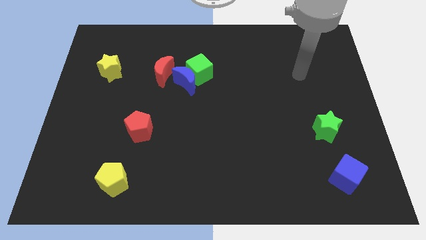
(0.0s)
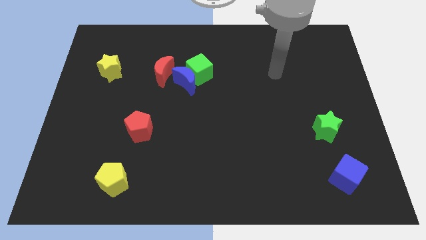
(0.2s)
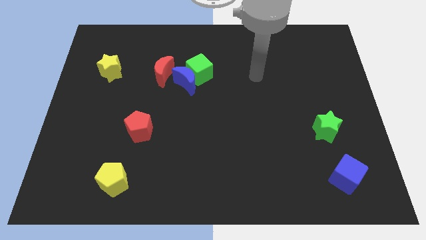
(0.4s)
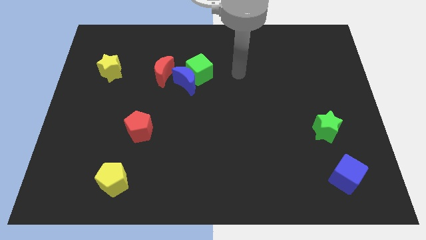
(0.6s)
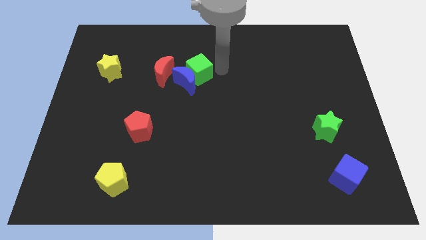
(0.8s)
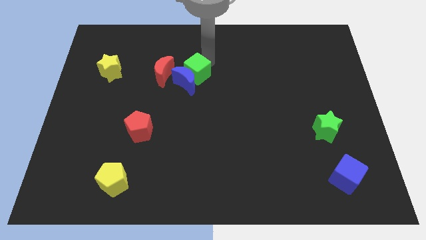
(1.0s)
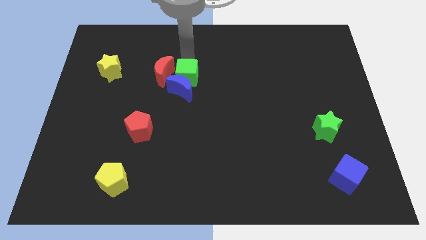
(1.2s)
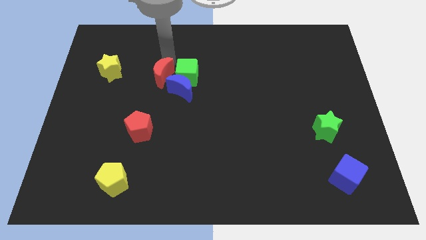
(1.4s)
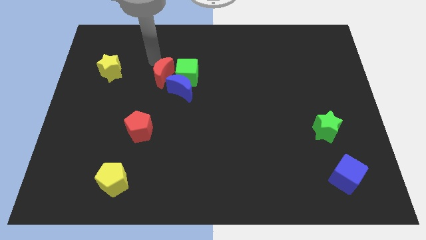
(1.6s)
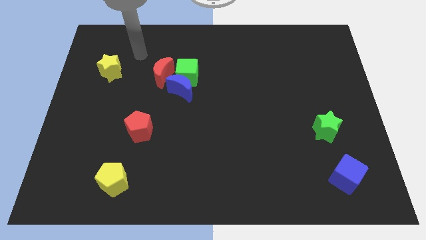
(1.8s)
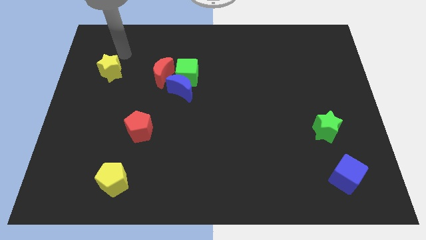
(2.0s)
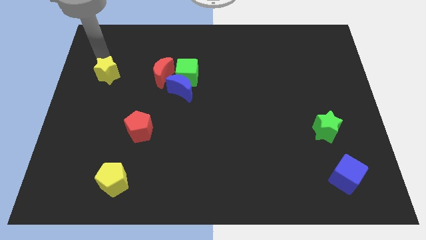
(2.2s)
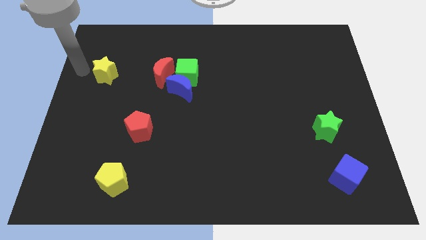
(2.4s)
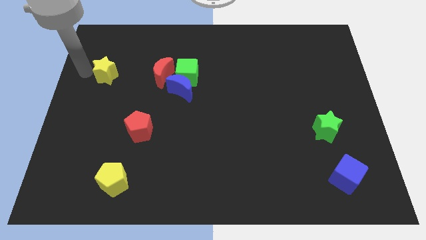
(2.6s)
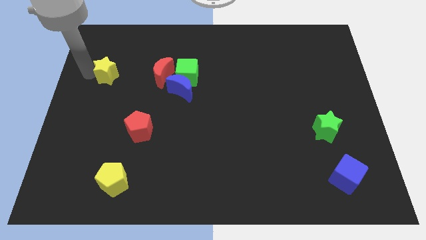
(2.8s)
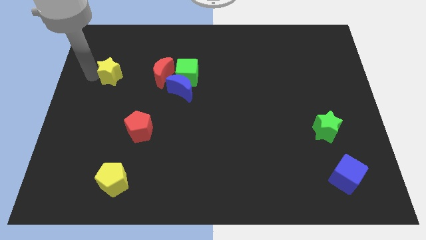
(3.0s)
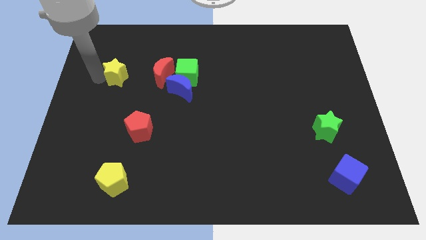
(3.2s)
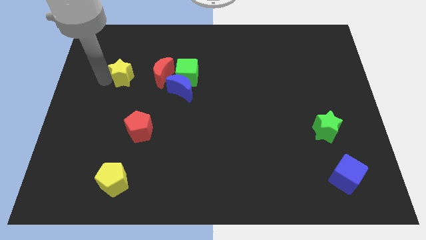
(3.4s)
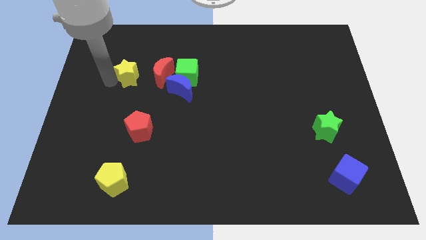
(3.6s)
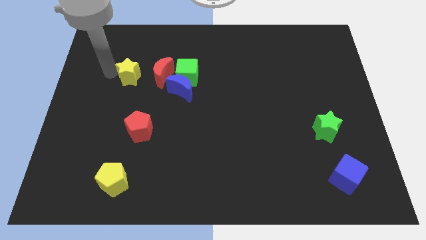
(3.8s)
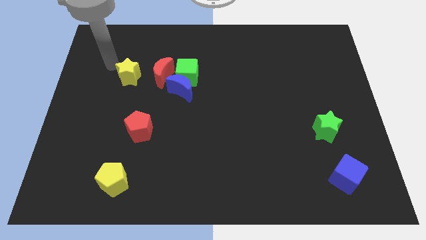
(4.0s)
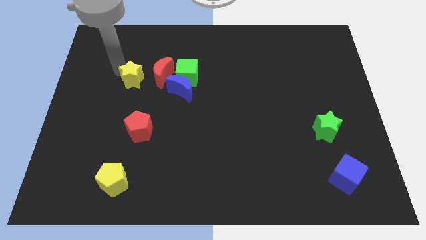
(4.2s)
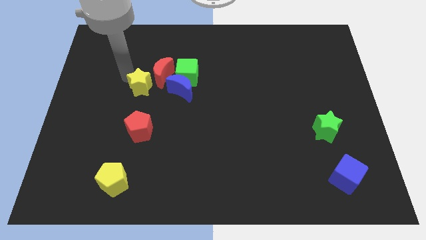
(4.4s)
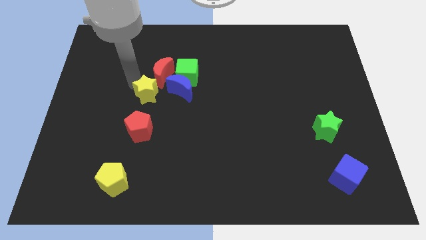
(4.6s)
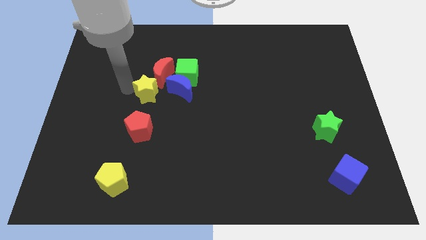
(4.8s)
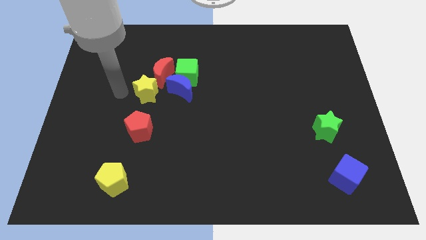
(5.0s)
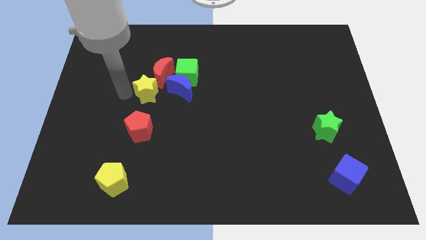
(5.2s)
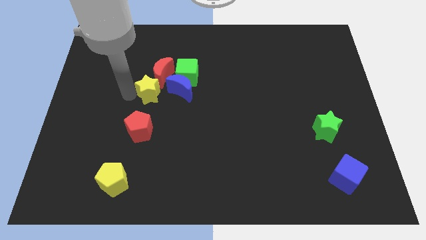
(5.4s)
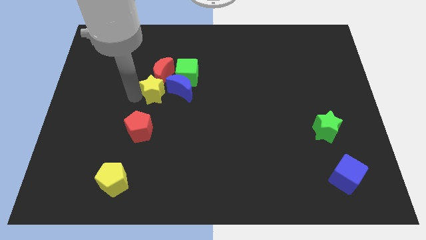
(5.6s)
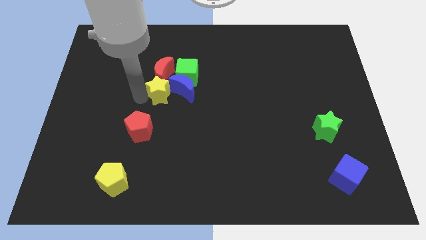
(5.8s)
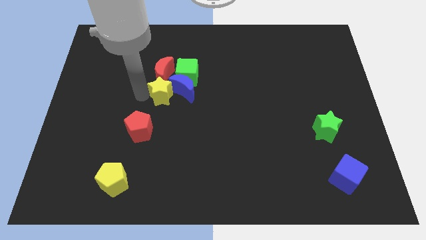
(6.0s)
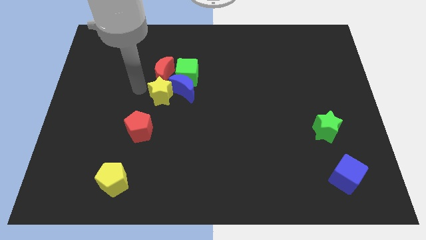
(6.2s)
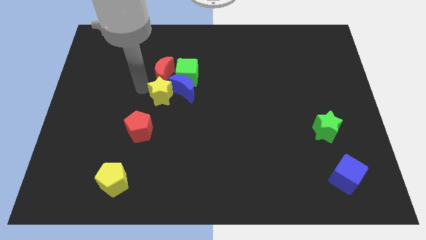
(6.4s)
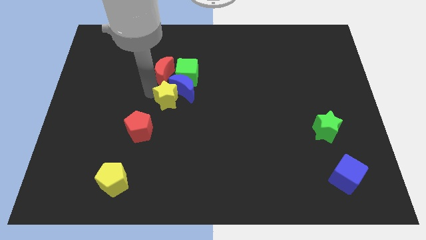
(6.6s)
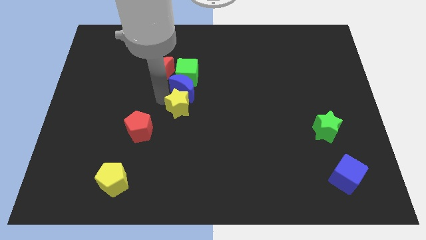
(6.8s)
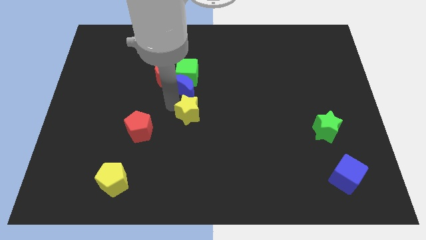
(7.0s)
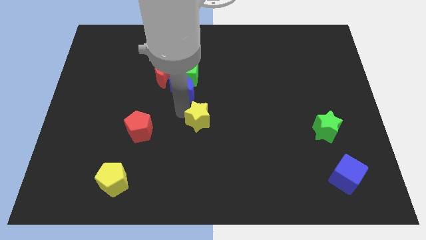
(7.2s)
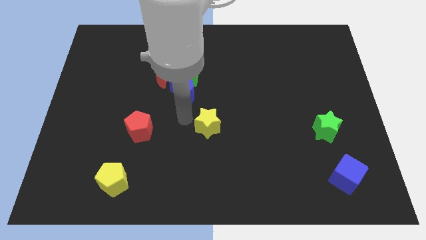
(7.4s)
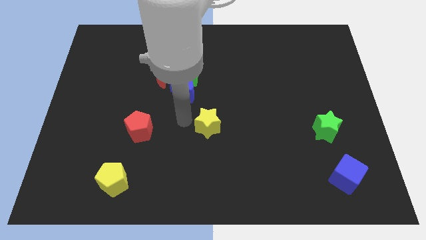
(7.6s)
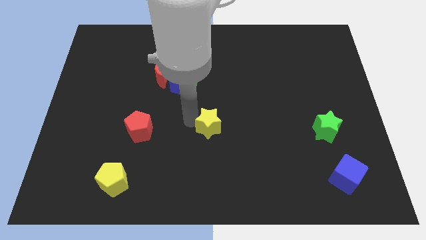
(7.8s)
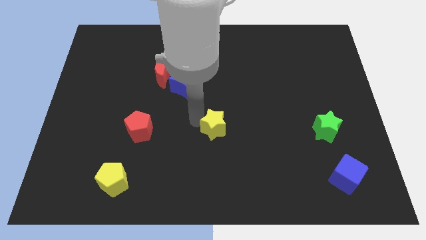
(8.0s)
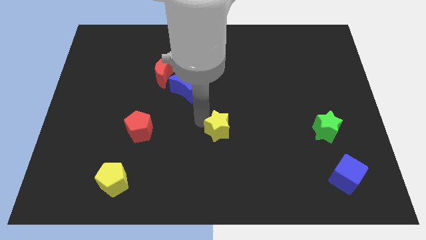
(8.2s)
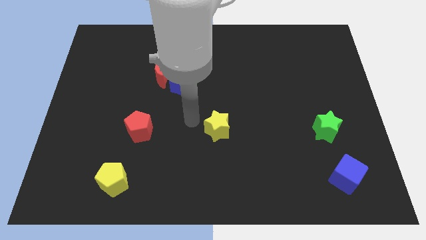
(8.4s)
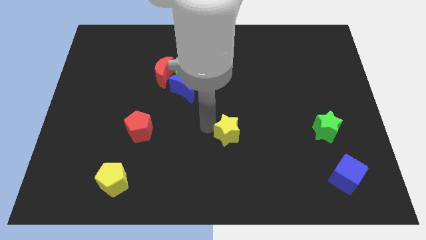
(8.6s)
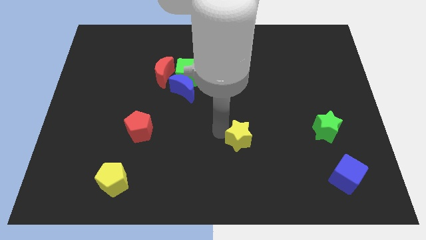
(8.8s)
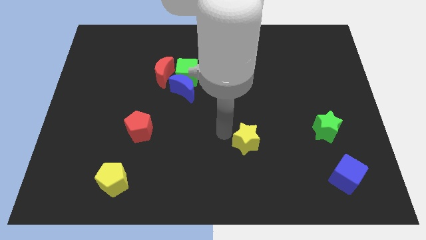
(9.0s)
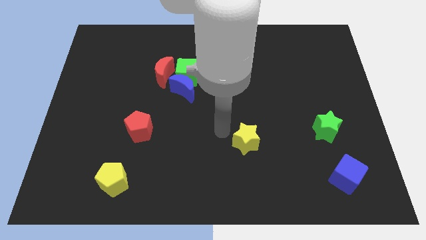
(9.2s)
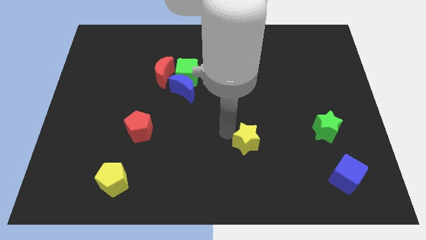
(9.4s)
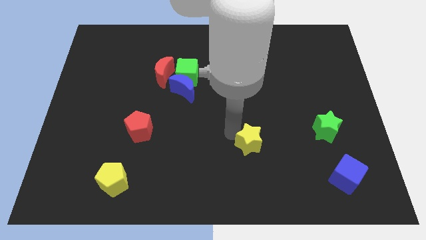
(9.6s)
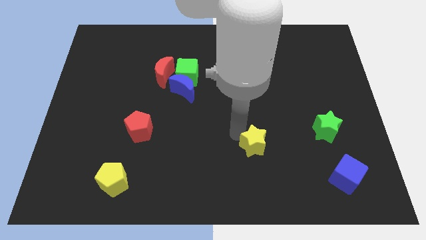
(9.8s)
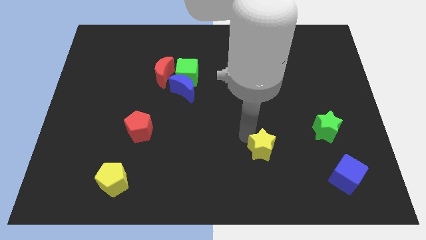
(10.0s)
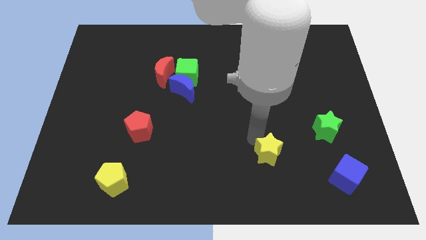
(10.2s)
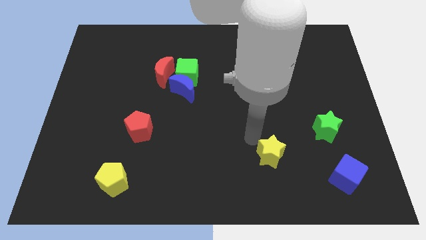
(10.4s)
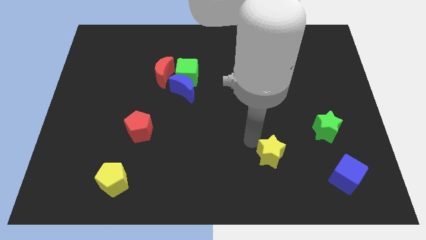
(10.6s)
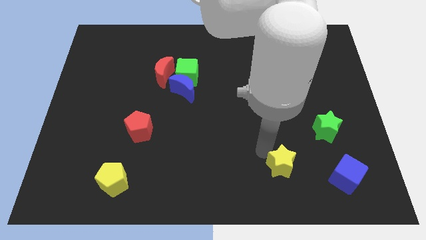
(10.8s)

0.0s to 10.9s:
move the yellow star just left of the blue cube
